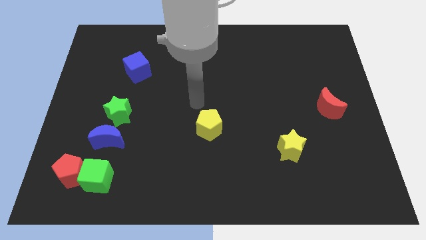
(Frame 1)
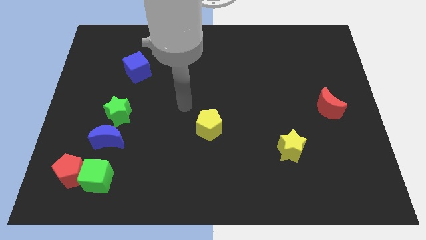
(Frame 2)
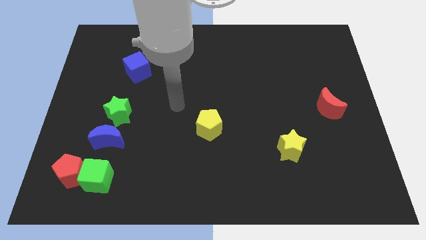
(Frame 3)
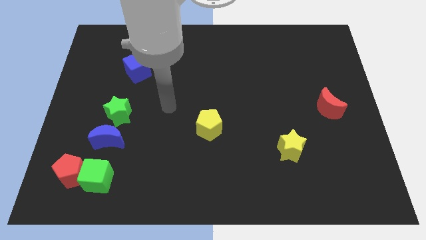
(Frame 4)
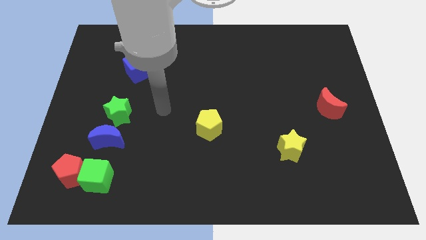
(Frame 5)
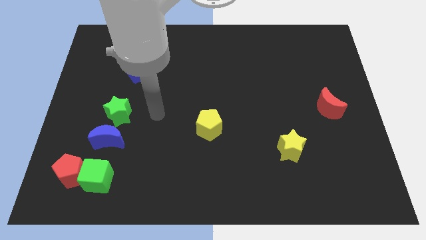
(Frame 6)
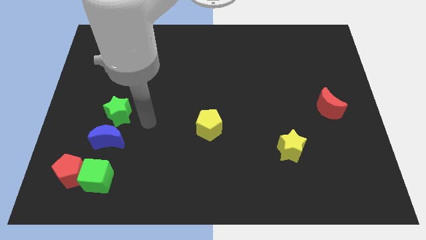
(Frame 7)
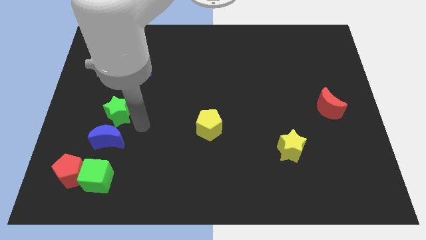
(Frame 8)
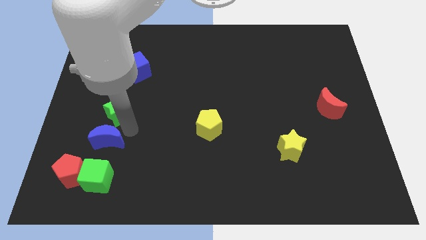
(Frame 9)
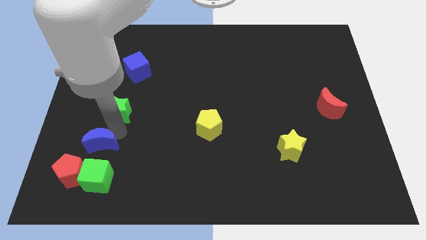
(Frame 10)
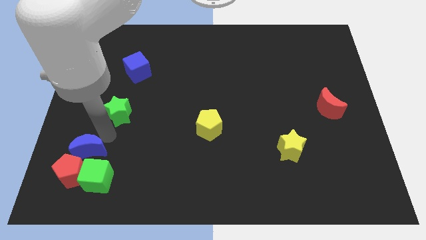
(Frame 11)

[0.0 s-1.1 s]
move the green star away from the blue moon

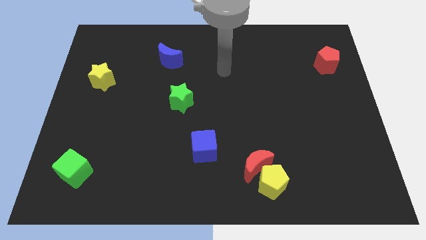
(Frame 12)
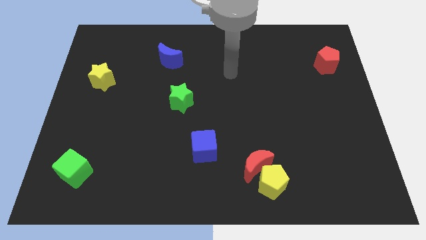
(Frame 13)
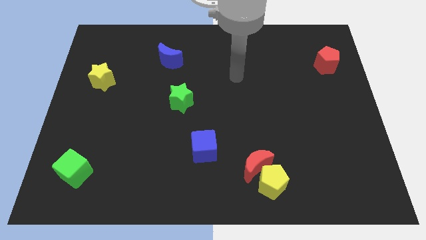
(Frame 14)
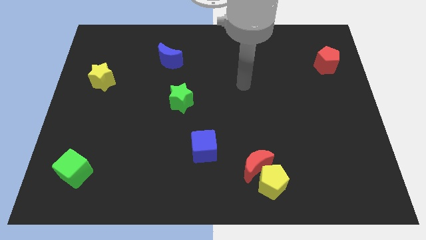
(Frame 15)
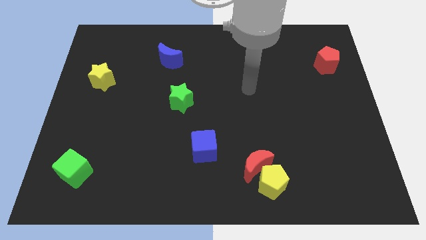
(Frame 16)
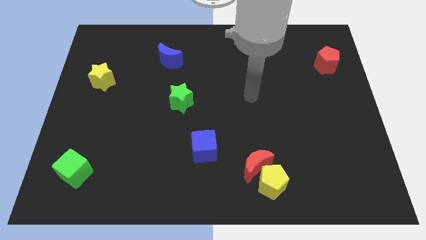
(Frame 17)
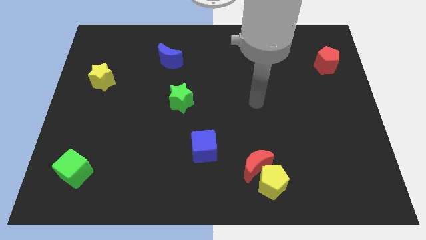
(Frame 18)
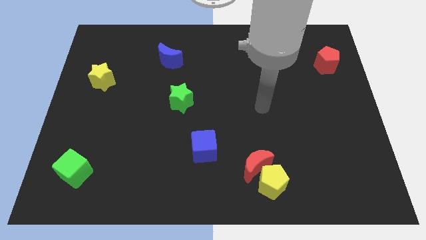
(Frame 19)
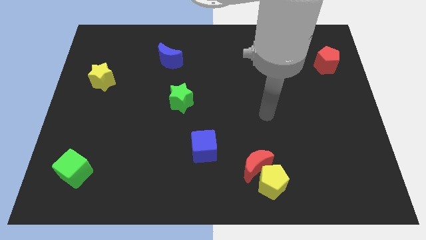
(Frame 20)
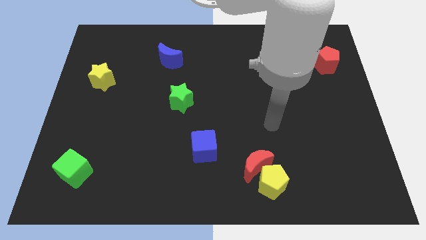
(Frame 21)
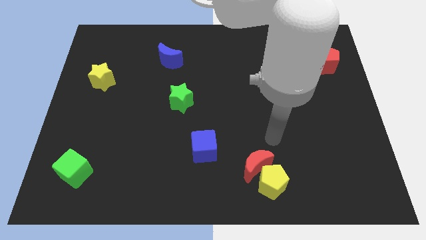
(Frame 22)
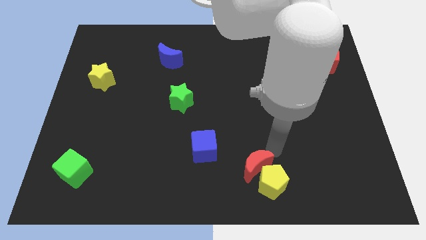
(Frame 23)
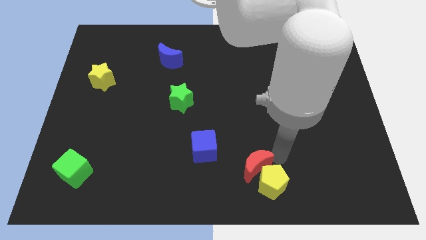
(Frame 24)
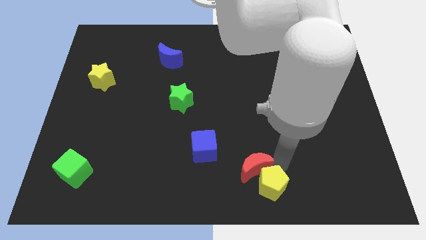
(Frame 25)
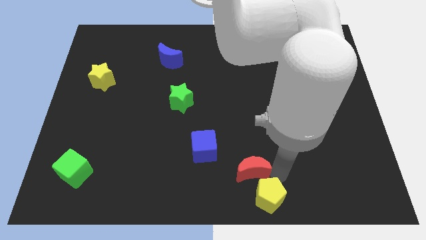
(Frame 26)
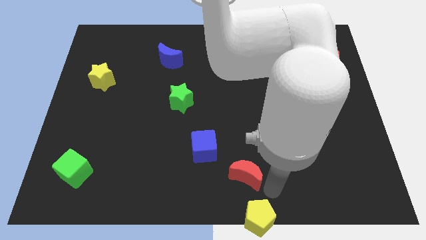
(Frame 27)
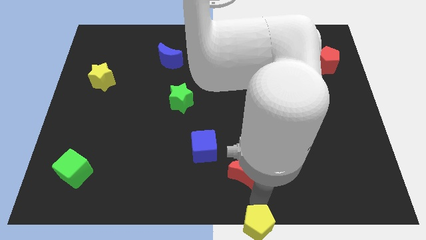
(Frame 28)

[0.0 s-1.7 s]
pull the red moon apart from the yellow pentagon

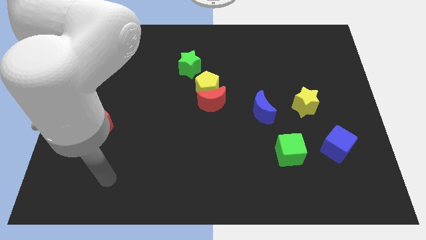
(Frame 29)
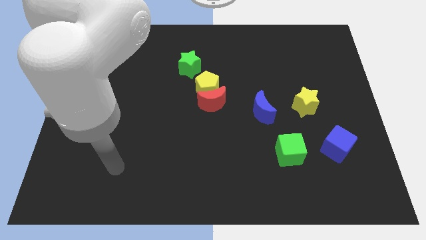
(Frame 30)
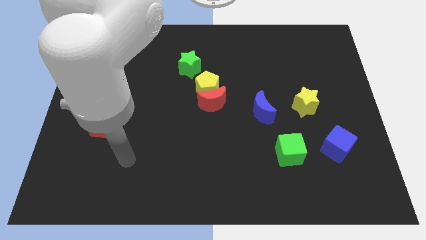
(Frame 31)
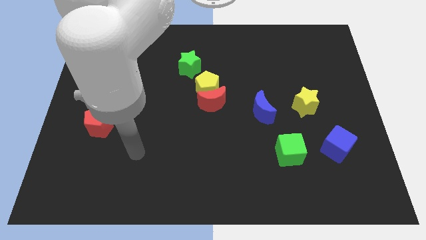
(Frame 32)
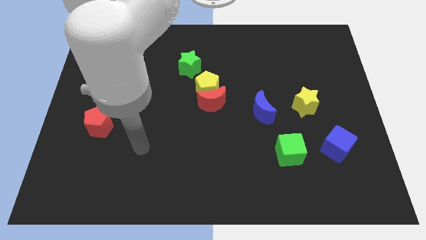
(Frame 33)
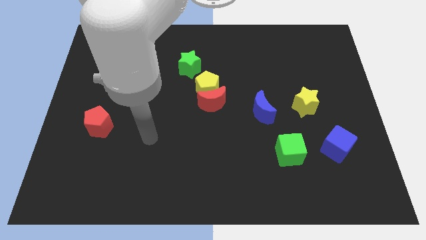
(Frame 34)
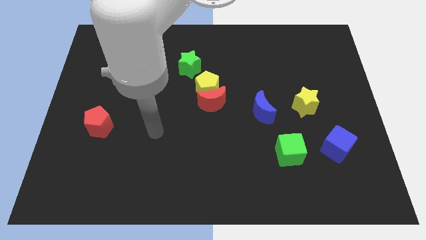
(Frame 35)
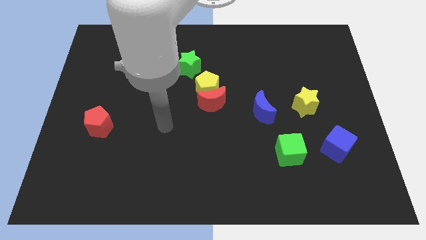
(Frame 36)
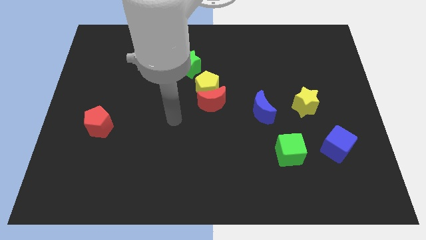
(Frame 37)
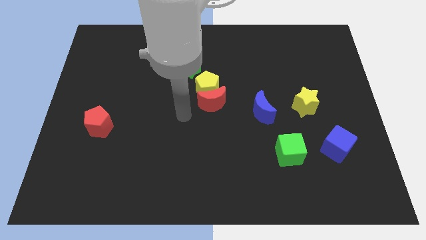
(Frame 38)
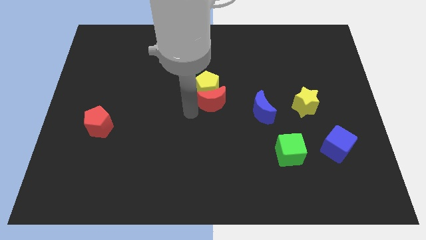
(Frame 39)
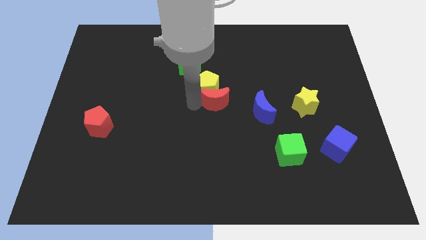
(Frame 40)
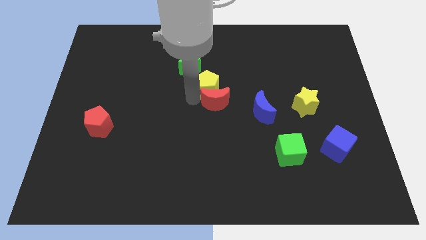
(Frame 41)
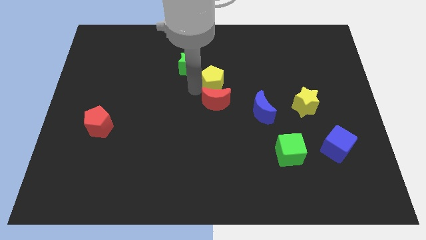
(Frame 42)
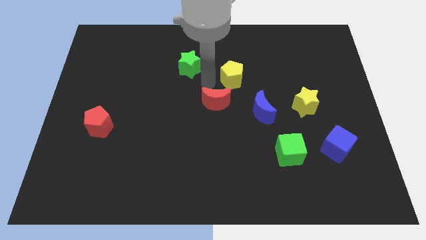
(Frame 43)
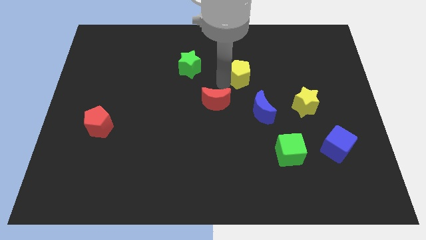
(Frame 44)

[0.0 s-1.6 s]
separate the red moon from the yellow pentagon

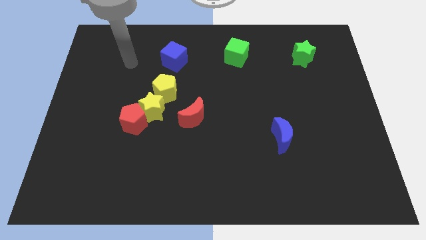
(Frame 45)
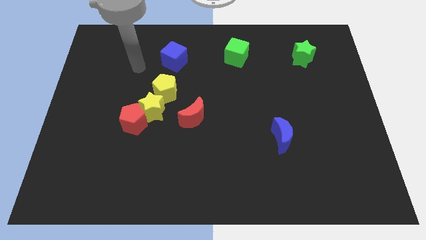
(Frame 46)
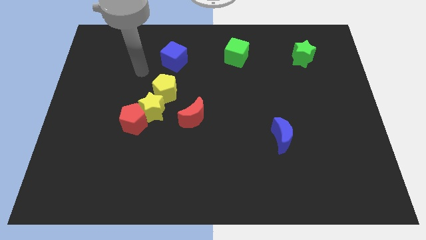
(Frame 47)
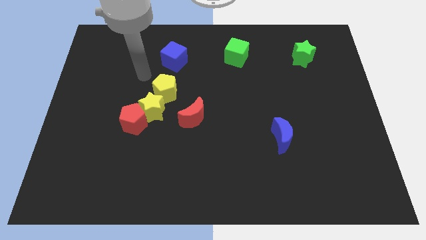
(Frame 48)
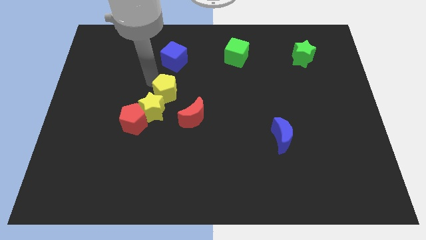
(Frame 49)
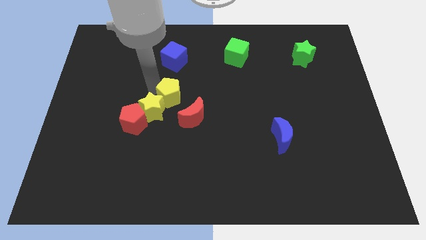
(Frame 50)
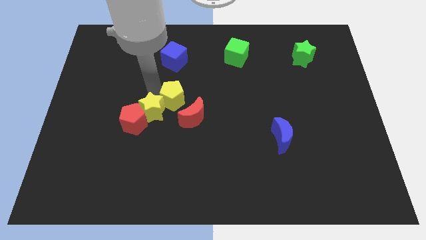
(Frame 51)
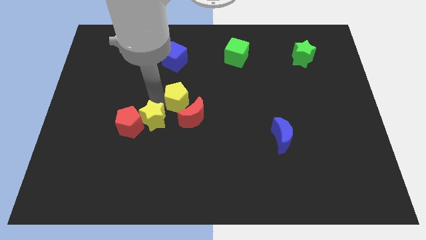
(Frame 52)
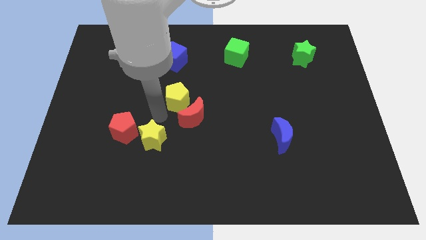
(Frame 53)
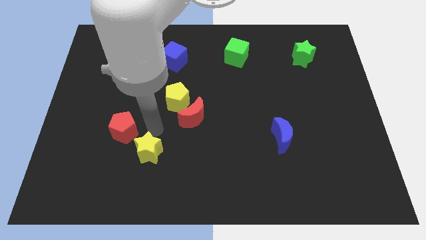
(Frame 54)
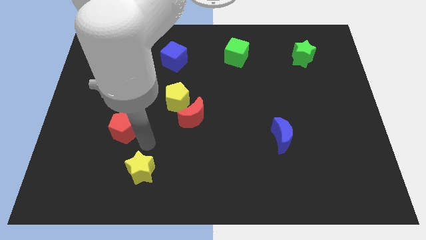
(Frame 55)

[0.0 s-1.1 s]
move the red pentagon away from the yellow star

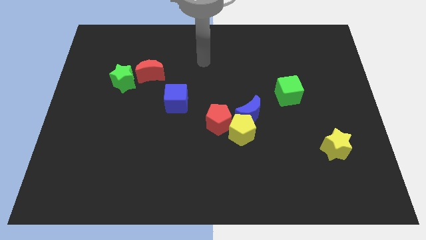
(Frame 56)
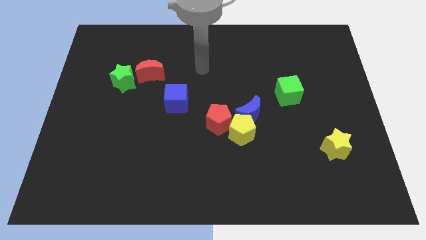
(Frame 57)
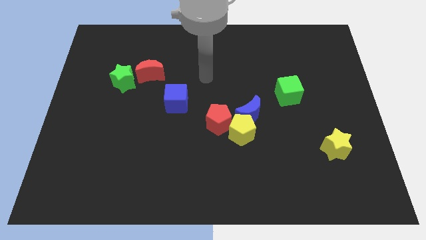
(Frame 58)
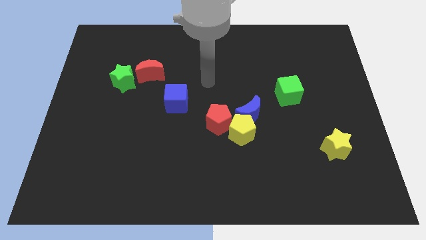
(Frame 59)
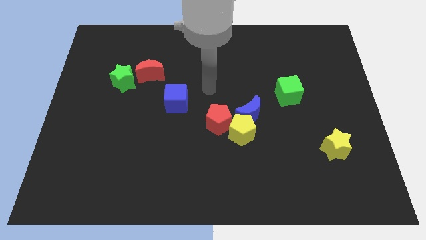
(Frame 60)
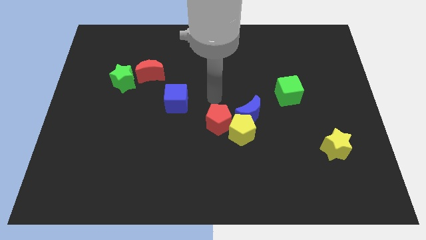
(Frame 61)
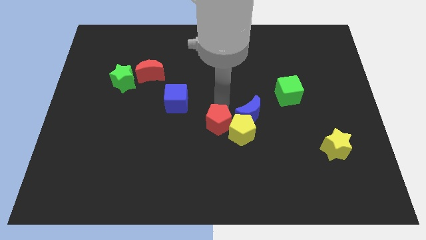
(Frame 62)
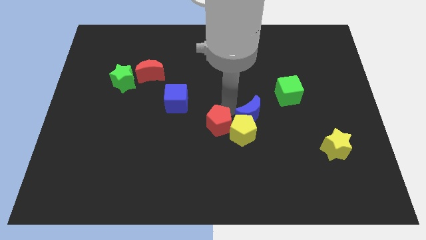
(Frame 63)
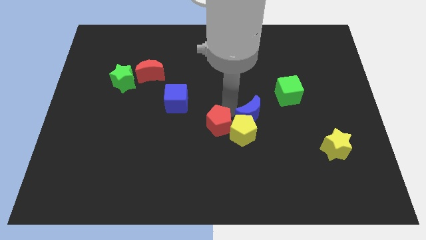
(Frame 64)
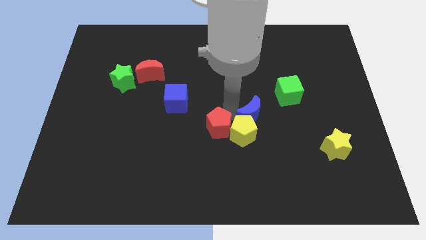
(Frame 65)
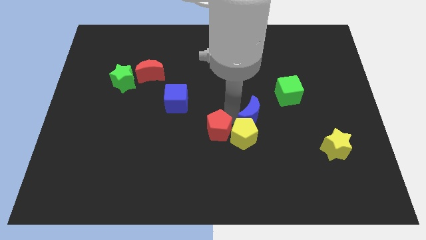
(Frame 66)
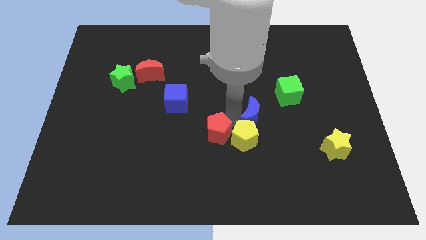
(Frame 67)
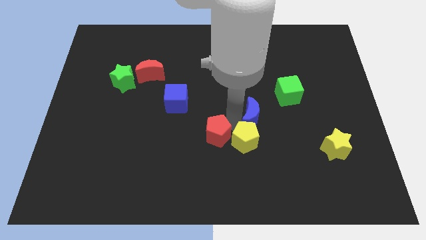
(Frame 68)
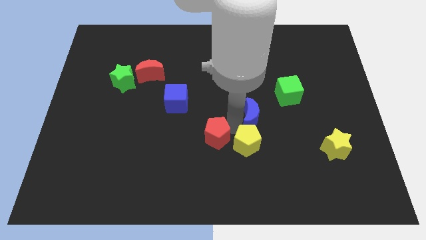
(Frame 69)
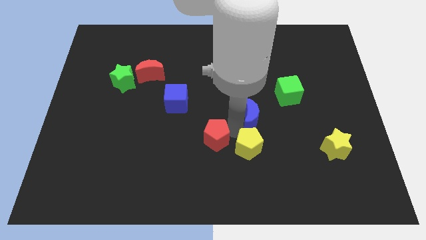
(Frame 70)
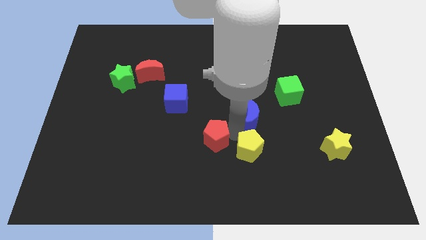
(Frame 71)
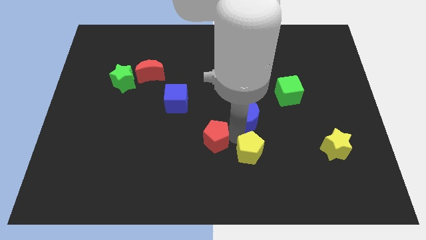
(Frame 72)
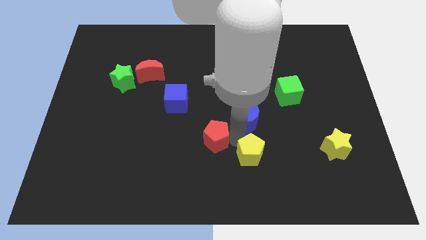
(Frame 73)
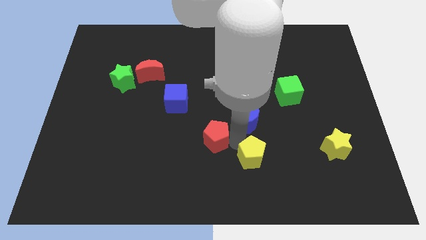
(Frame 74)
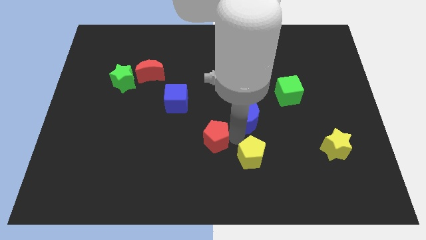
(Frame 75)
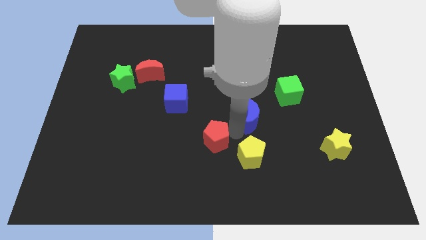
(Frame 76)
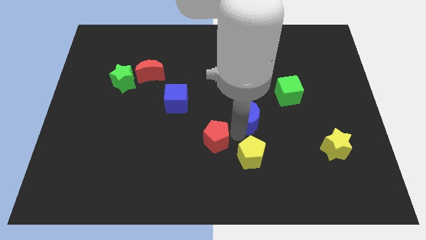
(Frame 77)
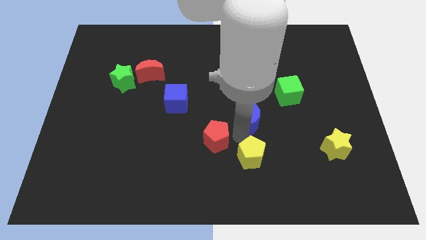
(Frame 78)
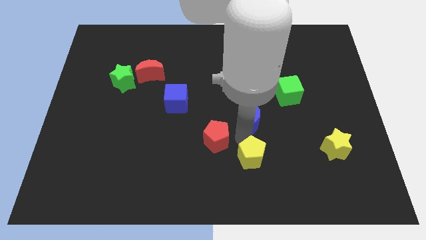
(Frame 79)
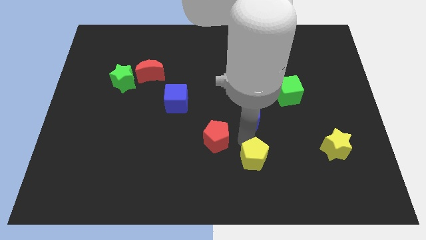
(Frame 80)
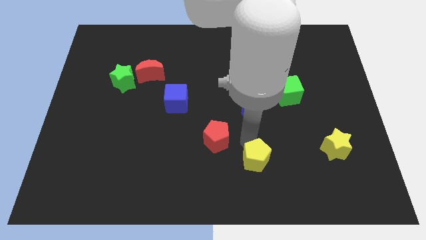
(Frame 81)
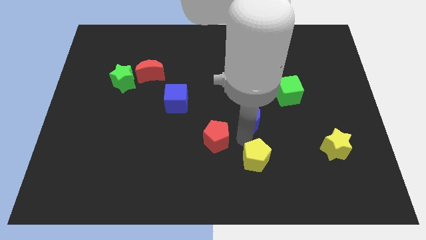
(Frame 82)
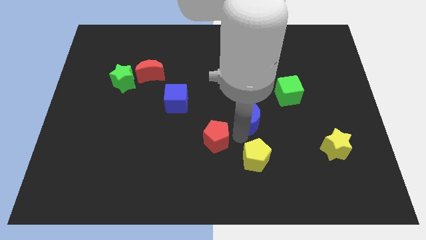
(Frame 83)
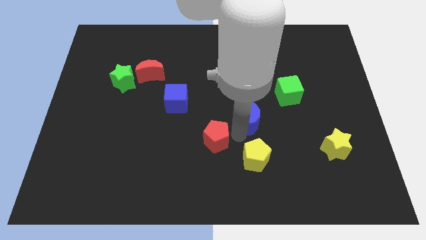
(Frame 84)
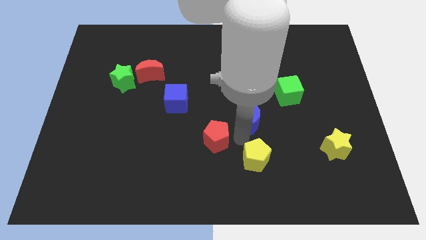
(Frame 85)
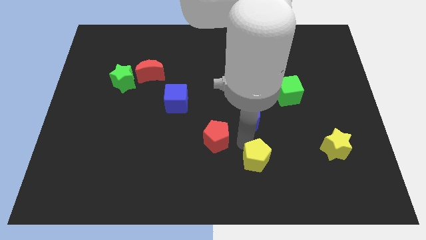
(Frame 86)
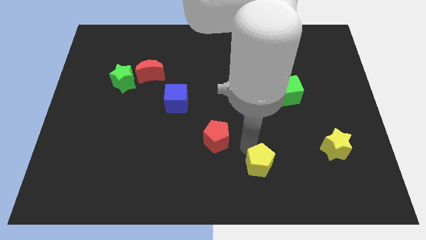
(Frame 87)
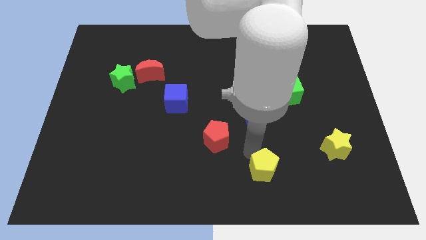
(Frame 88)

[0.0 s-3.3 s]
move the yellow pentagon away from the blue moon and red pentagon

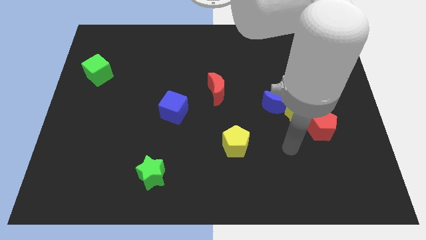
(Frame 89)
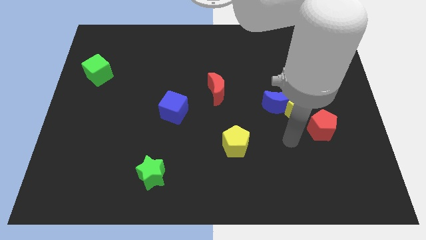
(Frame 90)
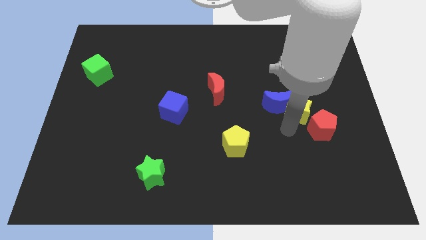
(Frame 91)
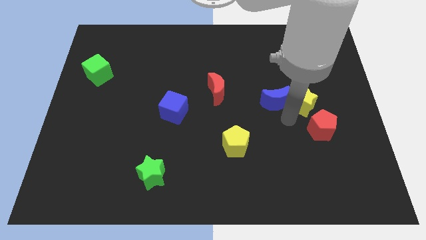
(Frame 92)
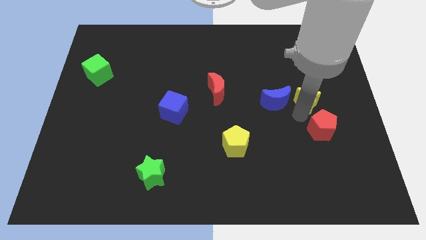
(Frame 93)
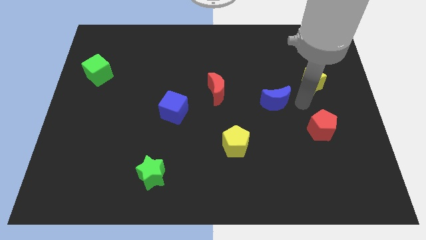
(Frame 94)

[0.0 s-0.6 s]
pull the blue moon apart from the yellow star

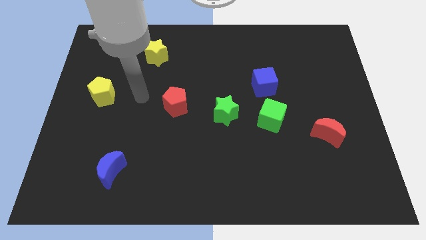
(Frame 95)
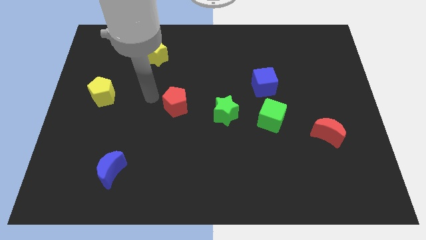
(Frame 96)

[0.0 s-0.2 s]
pull the blue cube apart from the green cube
